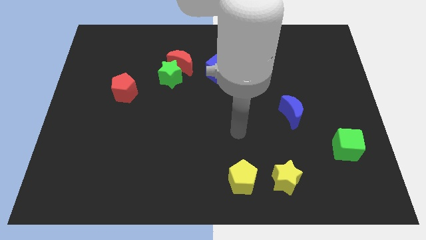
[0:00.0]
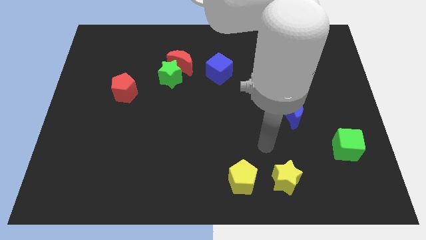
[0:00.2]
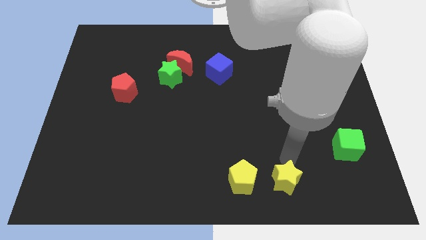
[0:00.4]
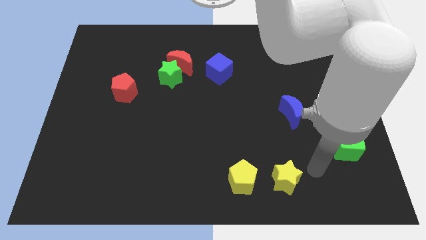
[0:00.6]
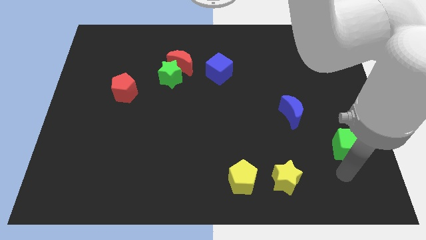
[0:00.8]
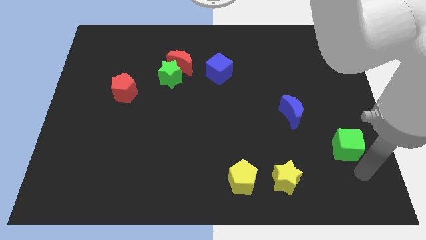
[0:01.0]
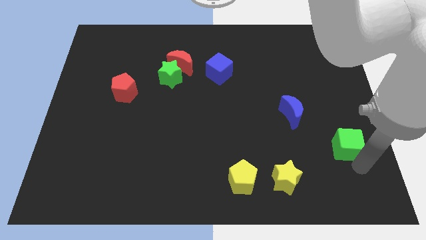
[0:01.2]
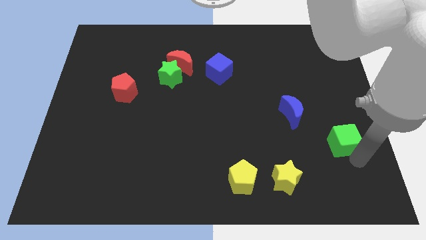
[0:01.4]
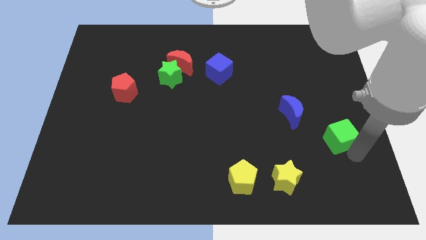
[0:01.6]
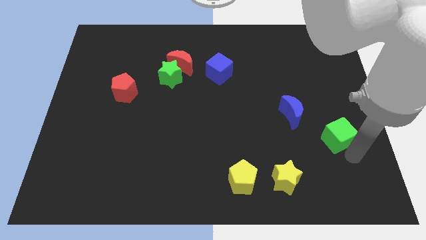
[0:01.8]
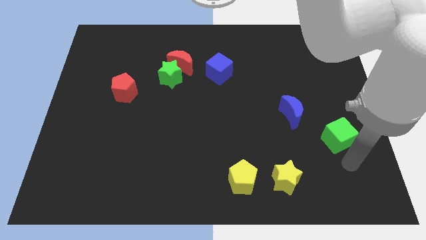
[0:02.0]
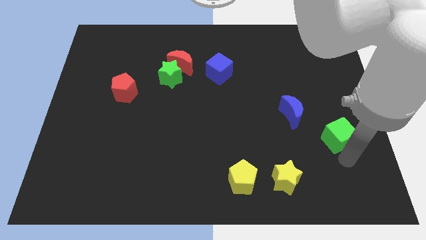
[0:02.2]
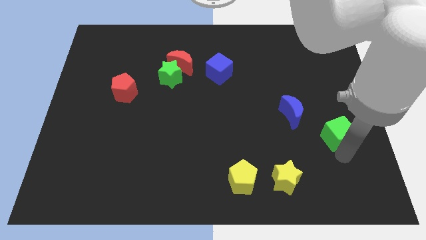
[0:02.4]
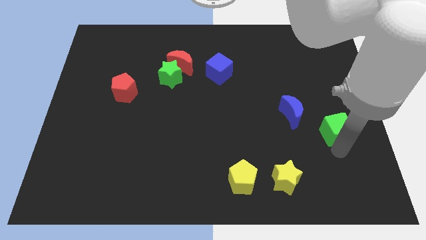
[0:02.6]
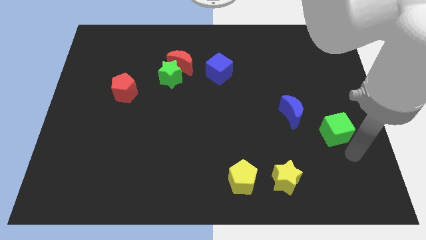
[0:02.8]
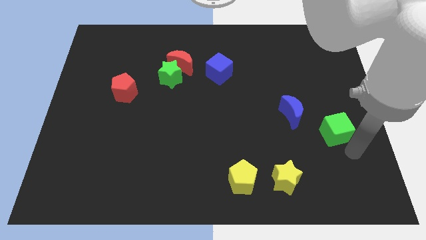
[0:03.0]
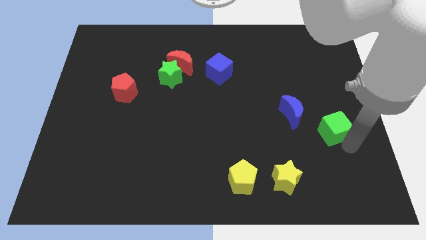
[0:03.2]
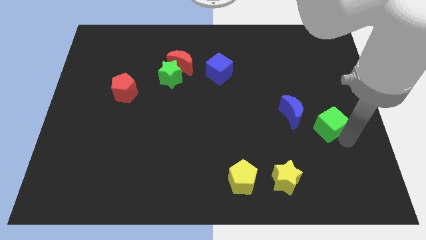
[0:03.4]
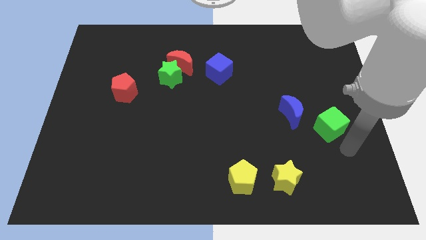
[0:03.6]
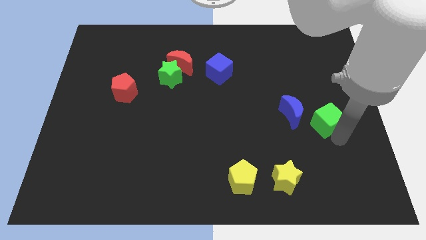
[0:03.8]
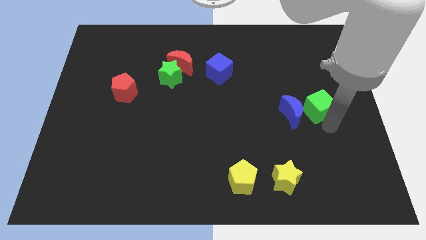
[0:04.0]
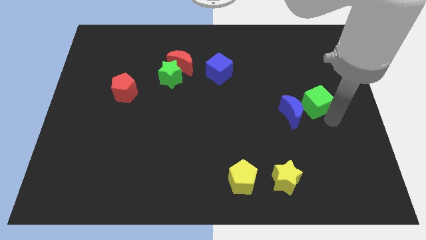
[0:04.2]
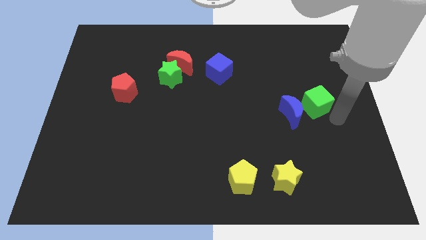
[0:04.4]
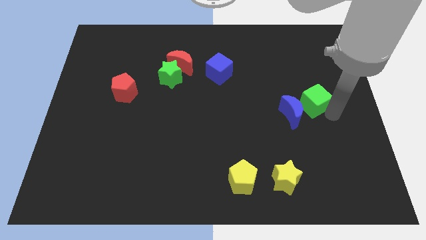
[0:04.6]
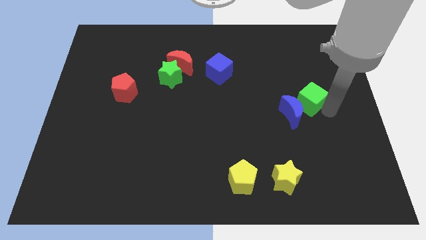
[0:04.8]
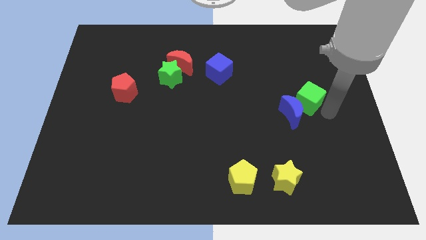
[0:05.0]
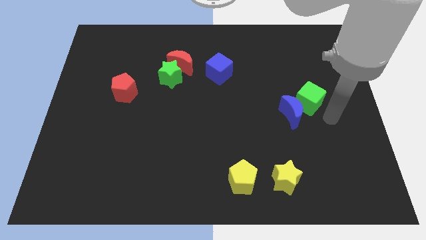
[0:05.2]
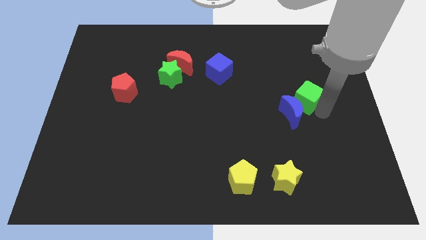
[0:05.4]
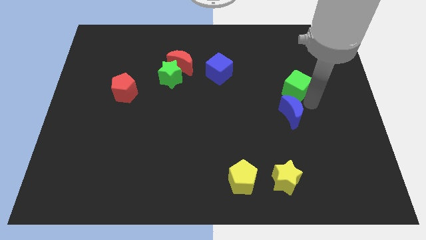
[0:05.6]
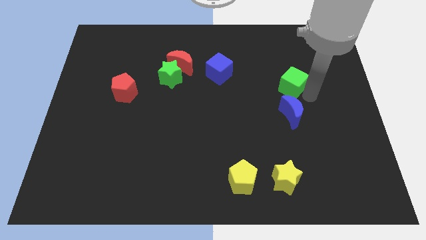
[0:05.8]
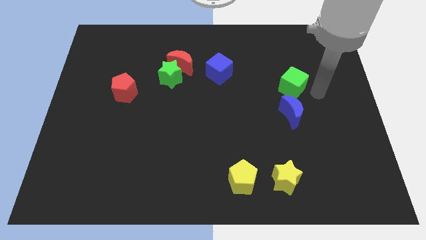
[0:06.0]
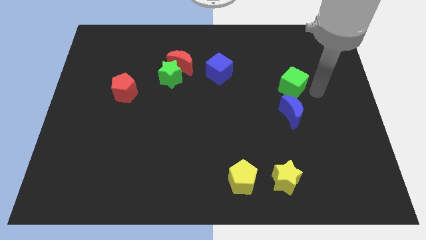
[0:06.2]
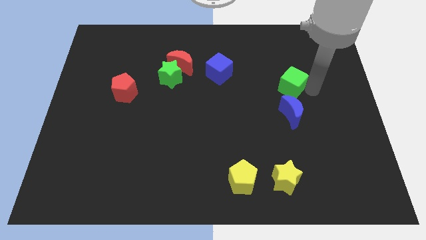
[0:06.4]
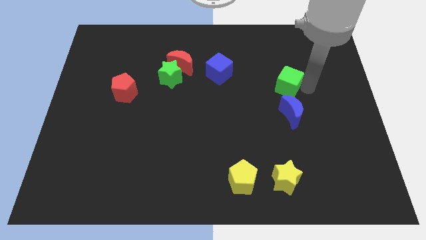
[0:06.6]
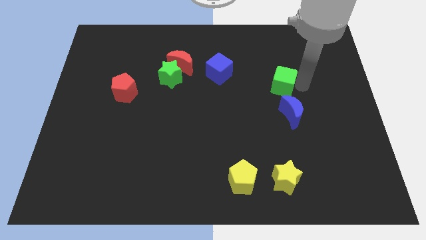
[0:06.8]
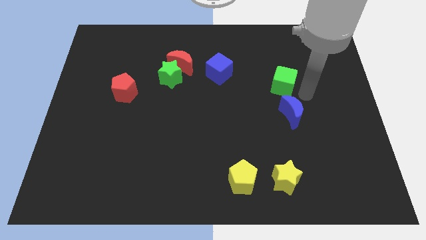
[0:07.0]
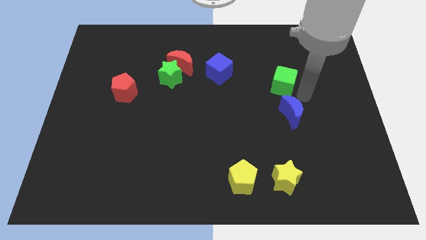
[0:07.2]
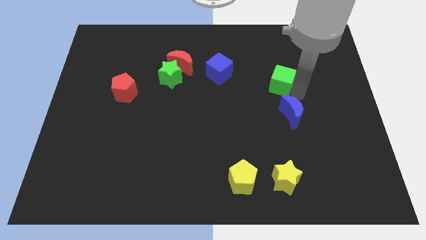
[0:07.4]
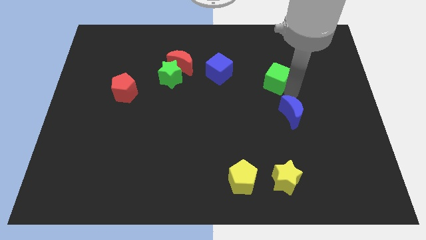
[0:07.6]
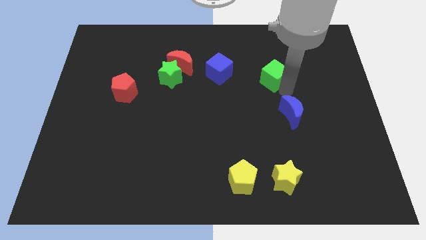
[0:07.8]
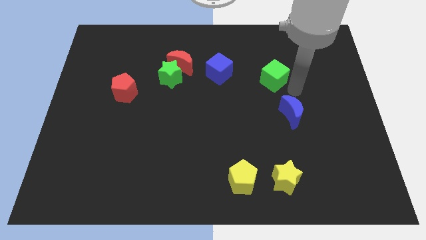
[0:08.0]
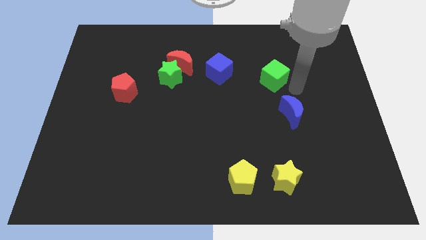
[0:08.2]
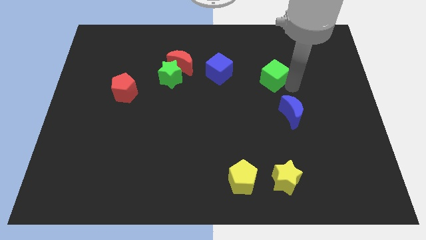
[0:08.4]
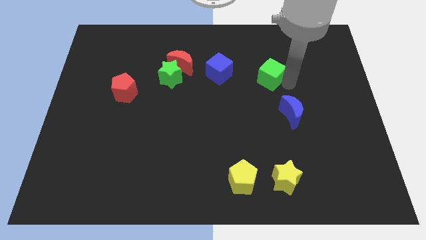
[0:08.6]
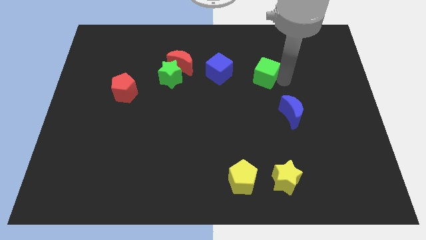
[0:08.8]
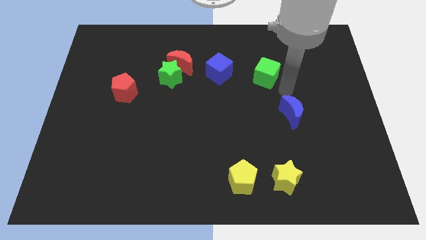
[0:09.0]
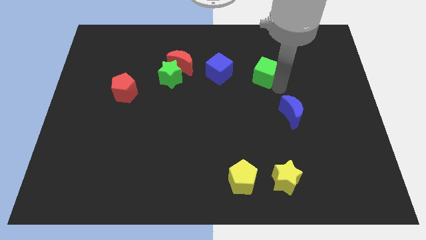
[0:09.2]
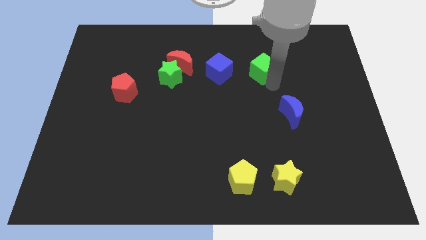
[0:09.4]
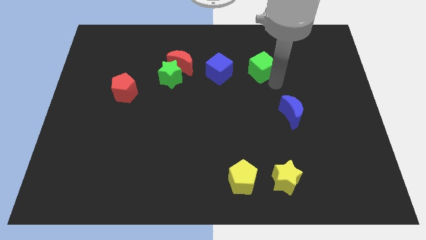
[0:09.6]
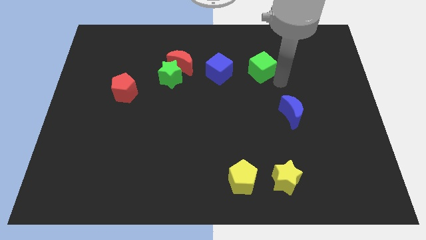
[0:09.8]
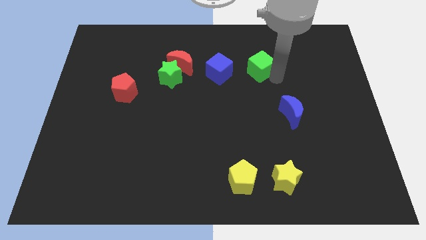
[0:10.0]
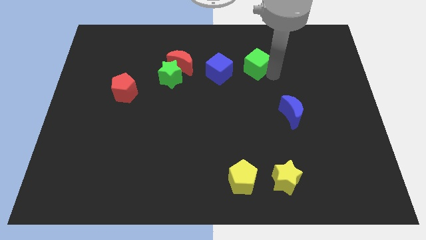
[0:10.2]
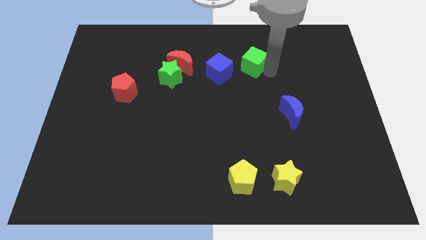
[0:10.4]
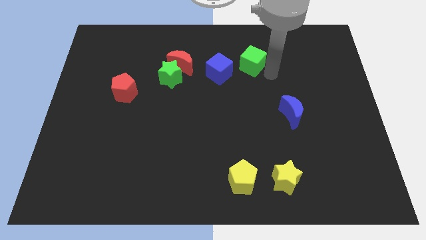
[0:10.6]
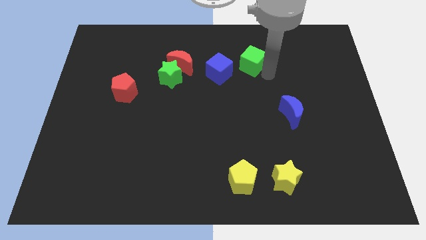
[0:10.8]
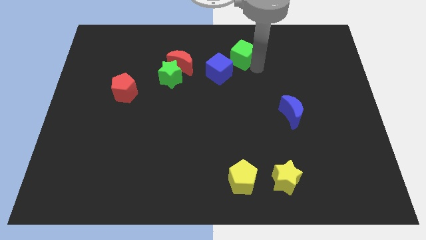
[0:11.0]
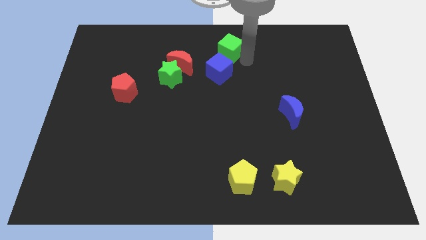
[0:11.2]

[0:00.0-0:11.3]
push the green cube to the top

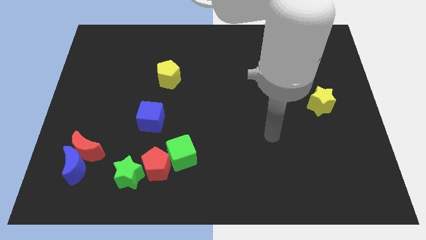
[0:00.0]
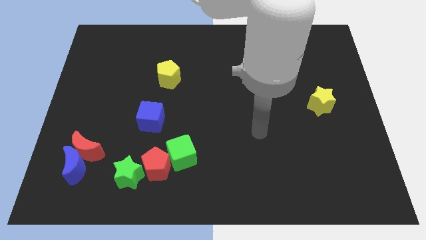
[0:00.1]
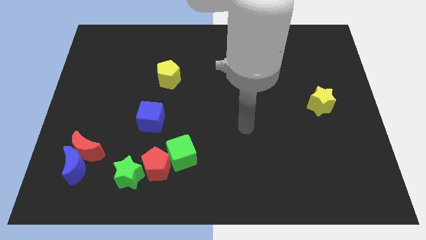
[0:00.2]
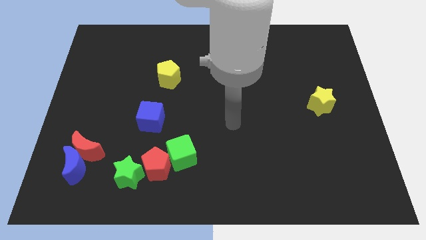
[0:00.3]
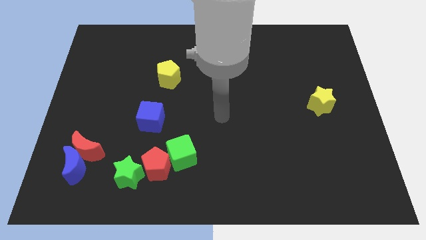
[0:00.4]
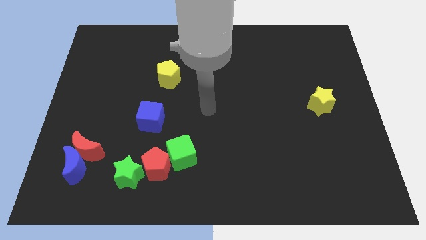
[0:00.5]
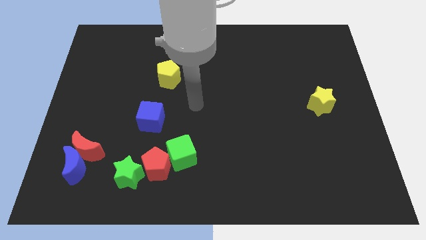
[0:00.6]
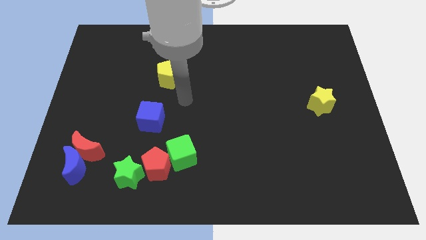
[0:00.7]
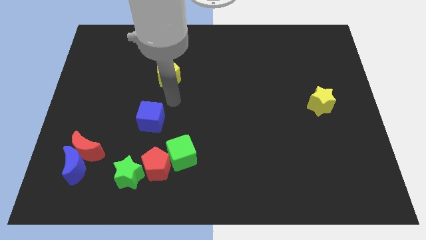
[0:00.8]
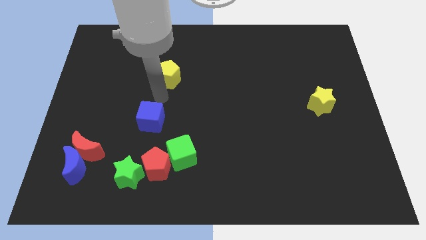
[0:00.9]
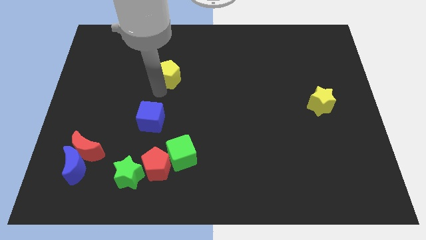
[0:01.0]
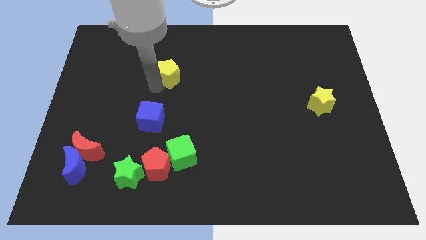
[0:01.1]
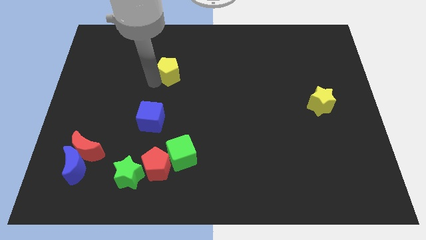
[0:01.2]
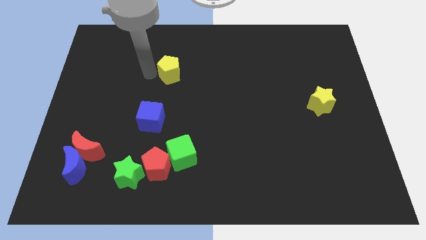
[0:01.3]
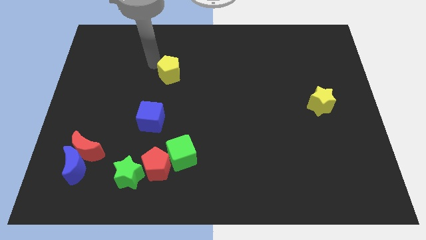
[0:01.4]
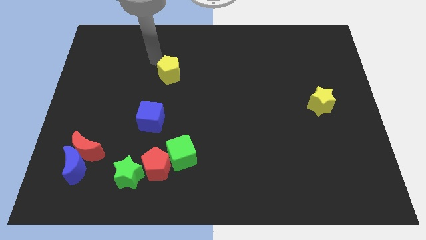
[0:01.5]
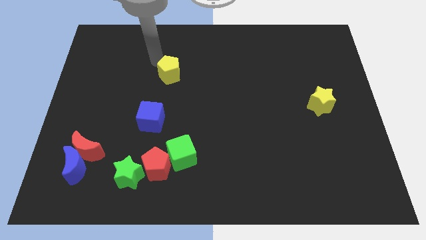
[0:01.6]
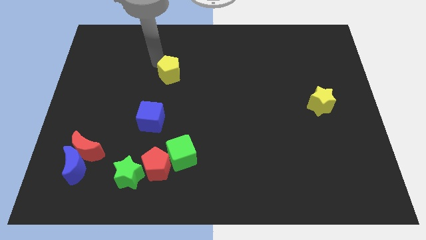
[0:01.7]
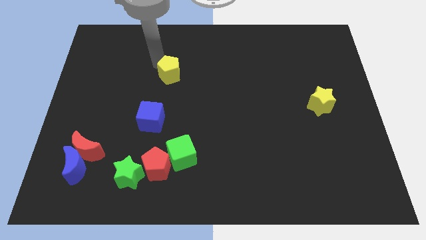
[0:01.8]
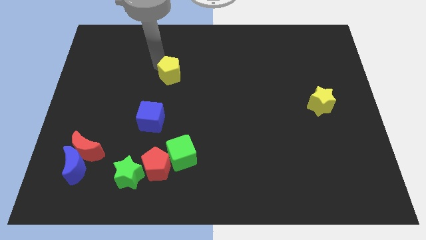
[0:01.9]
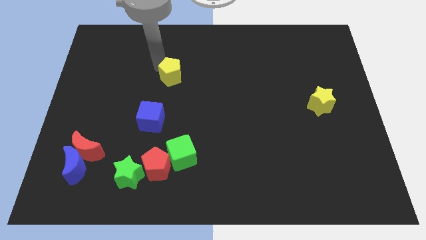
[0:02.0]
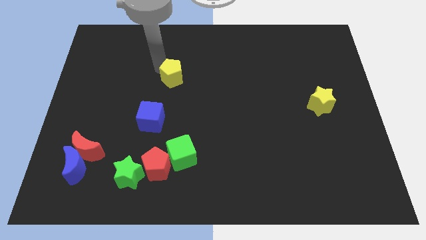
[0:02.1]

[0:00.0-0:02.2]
put the yellow pentagon to the middle
